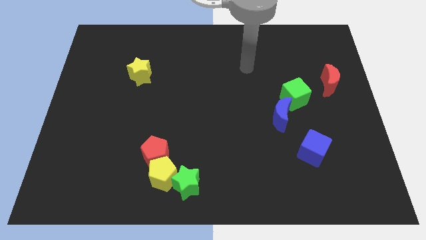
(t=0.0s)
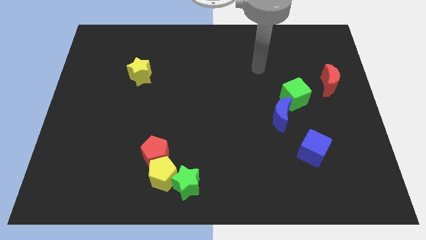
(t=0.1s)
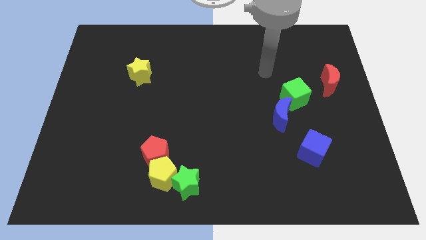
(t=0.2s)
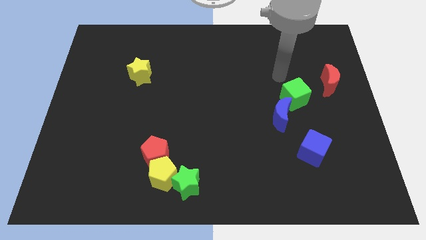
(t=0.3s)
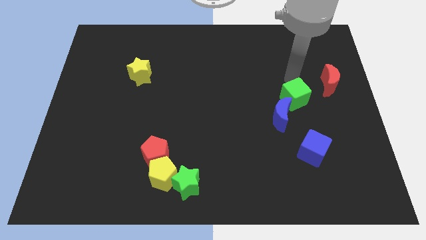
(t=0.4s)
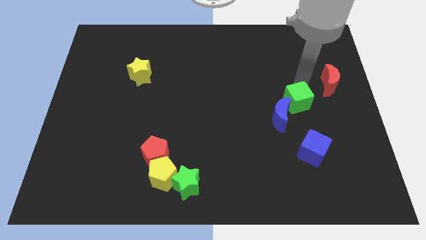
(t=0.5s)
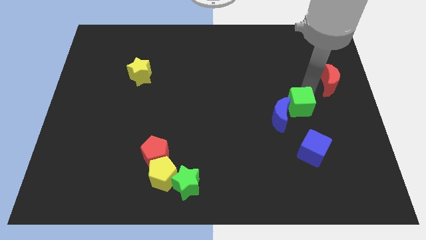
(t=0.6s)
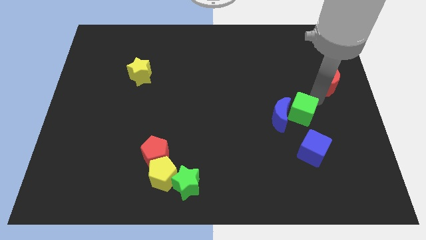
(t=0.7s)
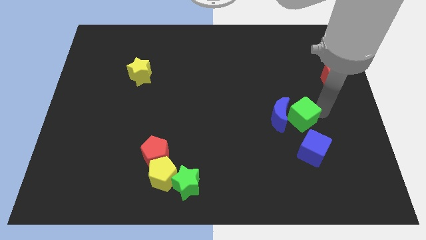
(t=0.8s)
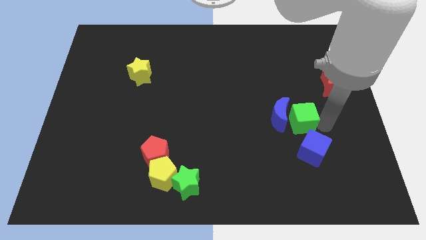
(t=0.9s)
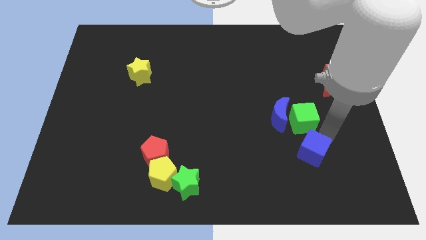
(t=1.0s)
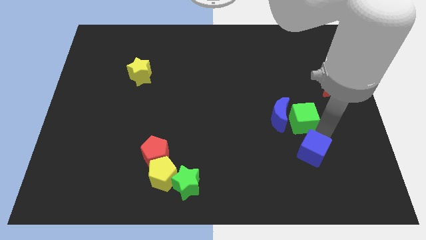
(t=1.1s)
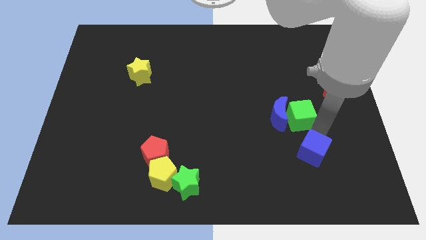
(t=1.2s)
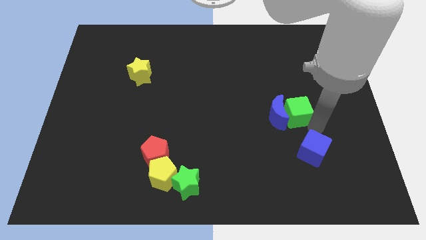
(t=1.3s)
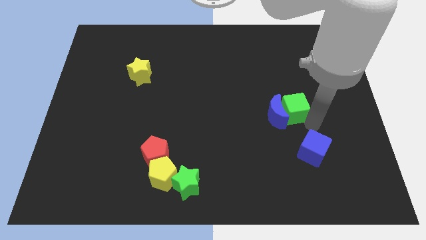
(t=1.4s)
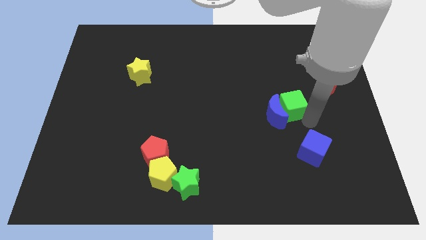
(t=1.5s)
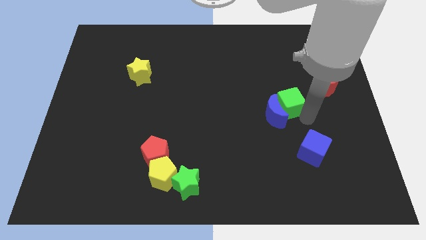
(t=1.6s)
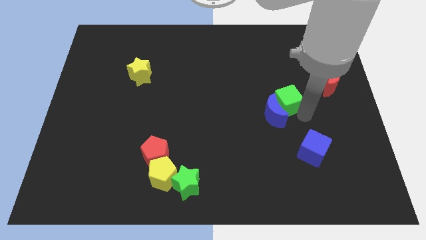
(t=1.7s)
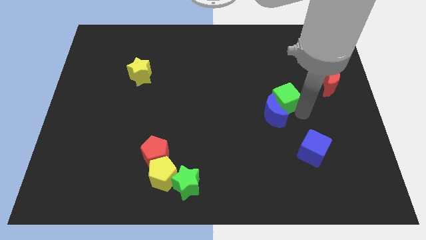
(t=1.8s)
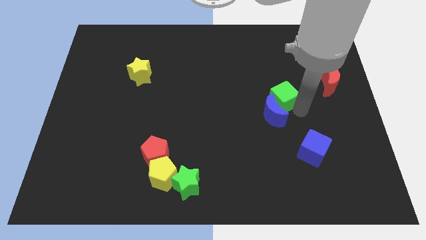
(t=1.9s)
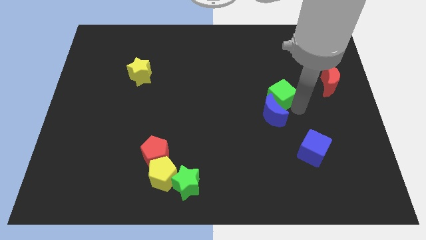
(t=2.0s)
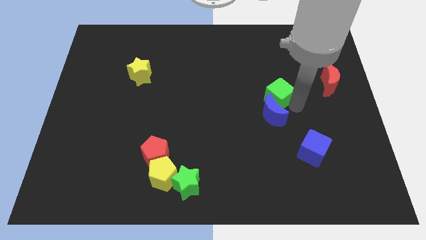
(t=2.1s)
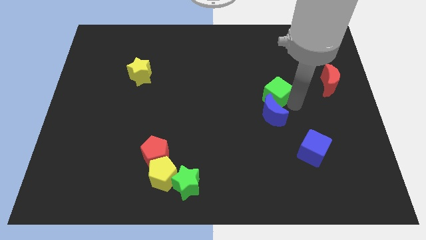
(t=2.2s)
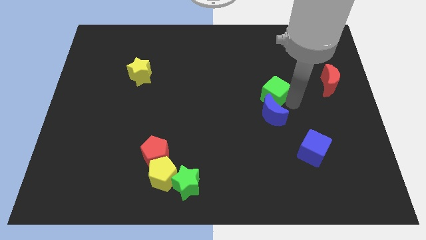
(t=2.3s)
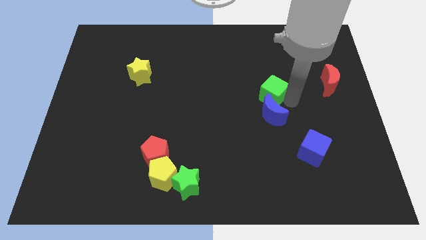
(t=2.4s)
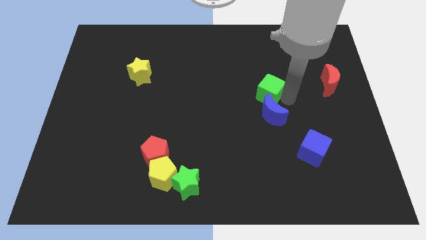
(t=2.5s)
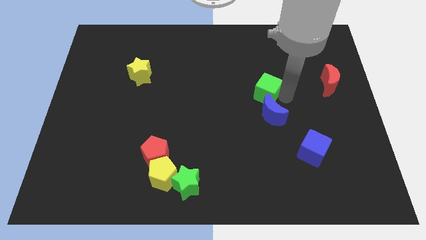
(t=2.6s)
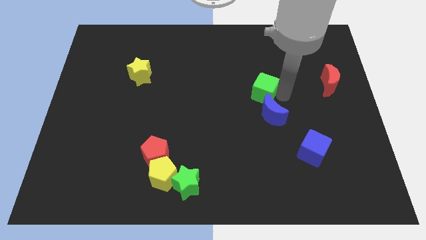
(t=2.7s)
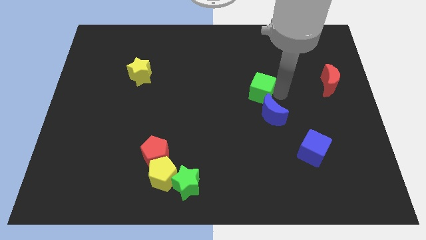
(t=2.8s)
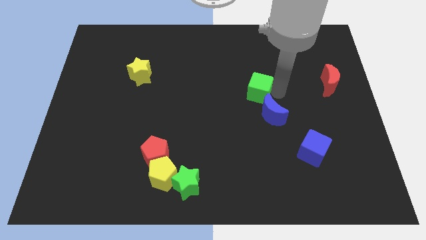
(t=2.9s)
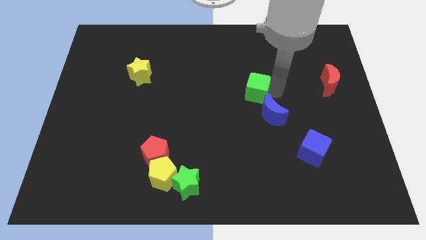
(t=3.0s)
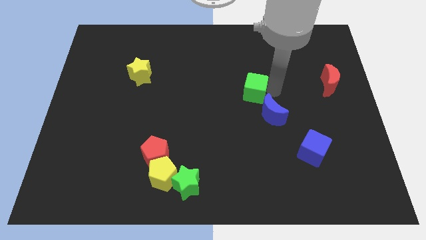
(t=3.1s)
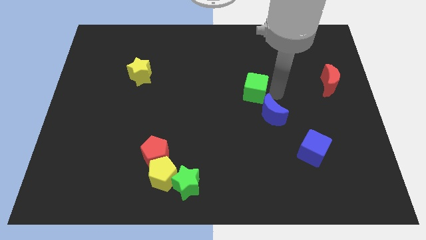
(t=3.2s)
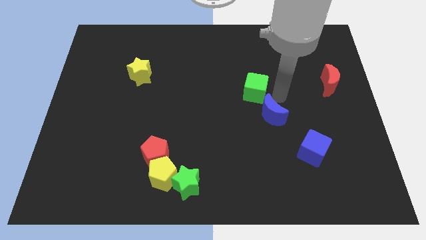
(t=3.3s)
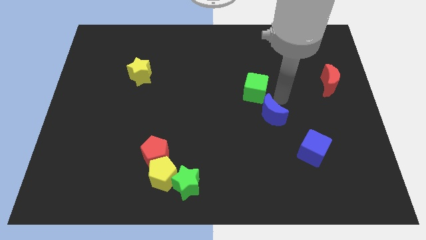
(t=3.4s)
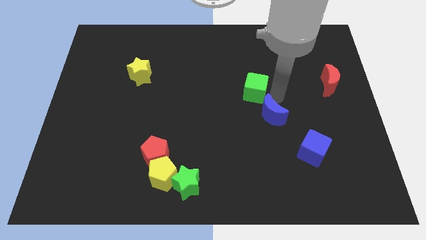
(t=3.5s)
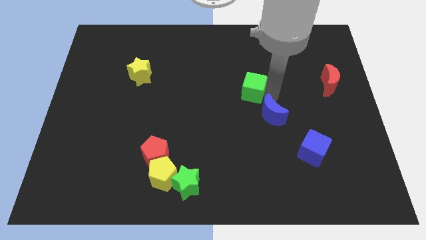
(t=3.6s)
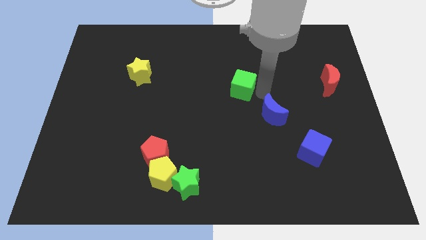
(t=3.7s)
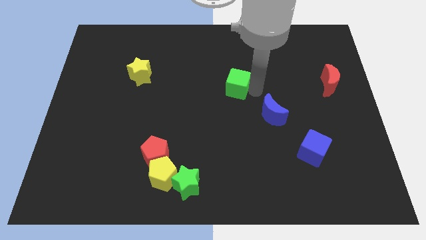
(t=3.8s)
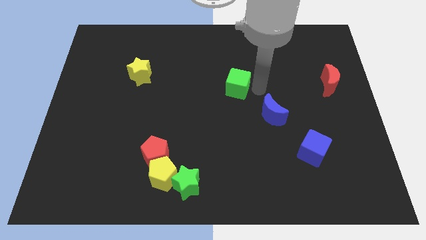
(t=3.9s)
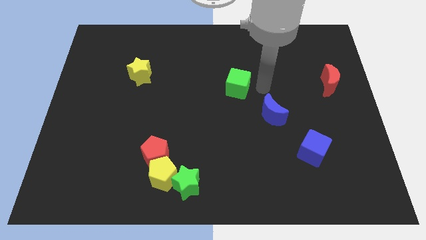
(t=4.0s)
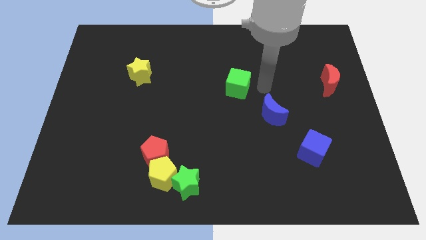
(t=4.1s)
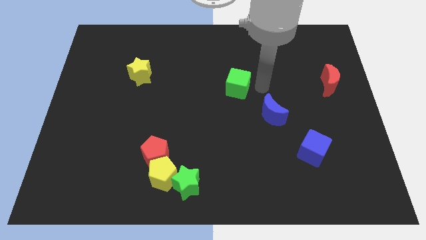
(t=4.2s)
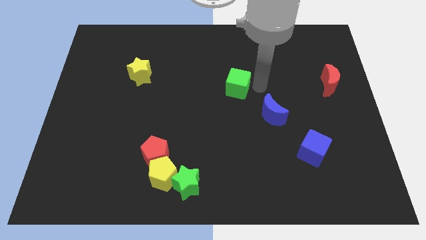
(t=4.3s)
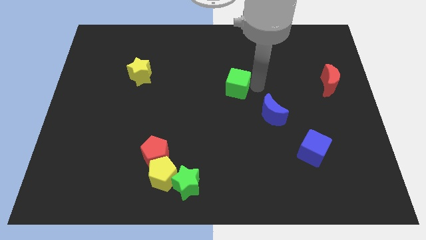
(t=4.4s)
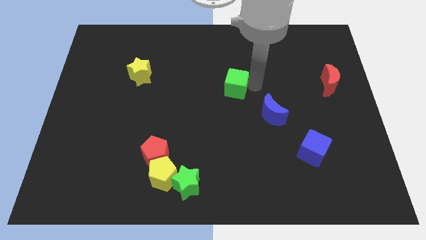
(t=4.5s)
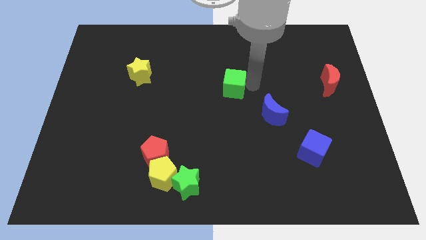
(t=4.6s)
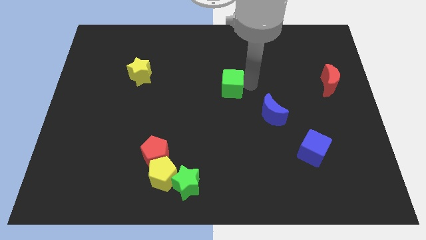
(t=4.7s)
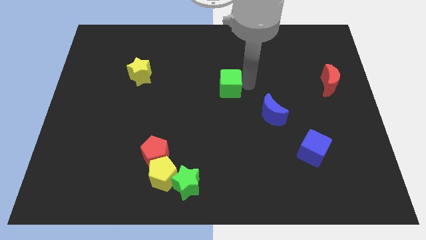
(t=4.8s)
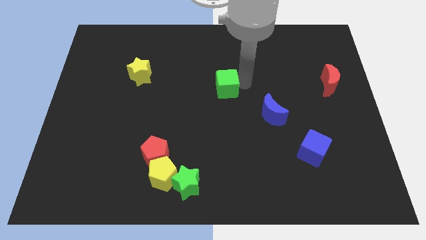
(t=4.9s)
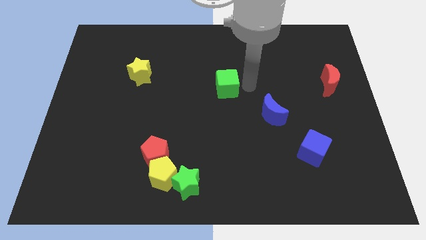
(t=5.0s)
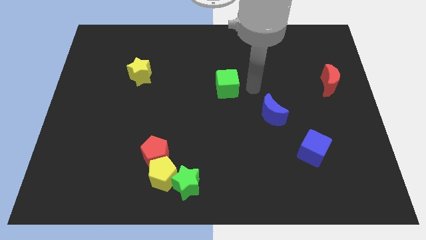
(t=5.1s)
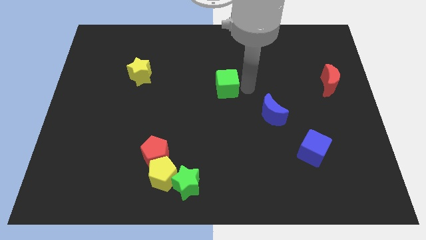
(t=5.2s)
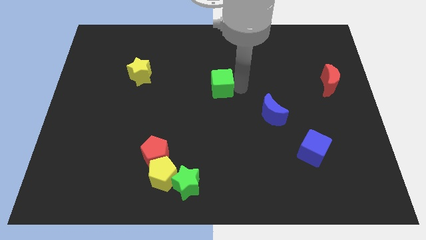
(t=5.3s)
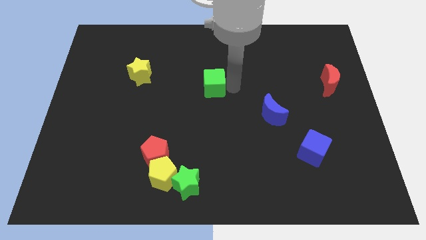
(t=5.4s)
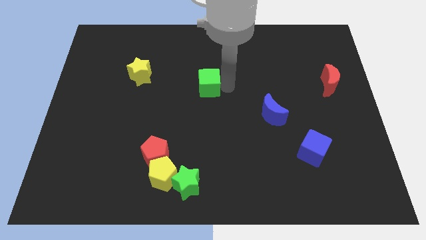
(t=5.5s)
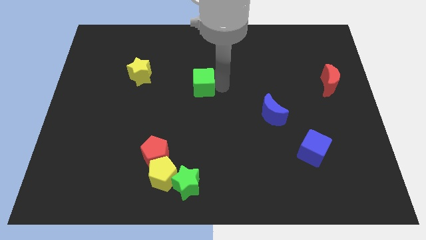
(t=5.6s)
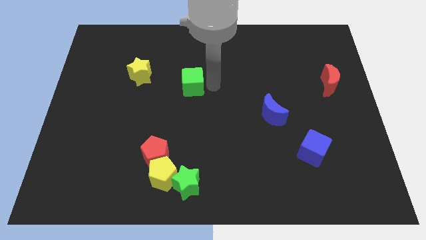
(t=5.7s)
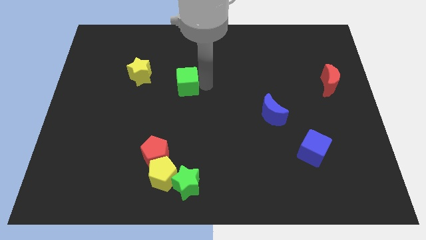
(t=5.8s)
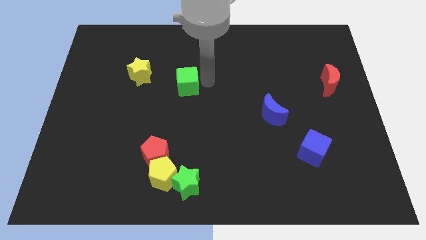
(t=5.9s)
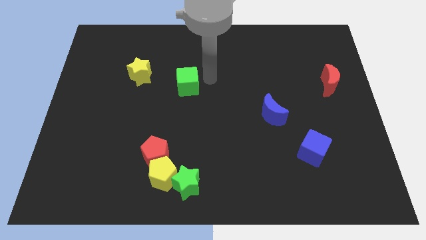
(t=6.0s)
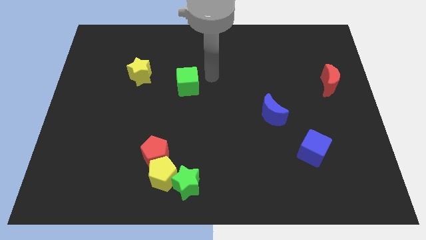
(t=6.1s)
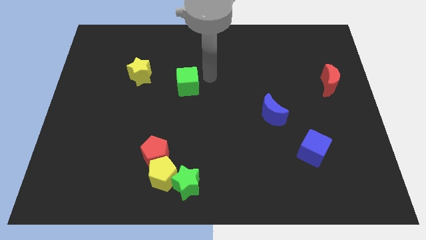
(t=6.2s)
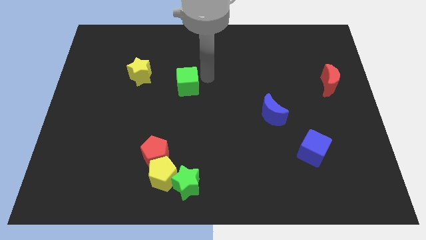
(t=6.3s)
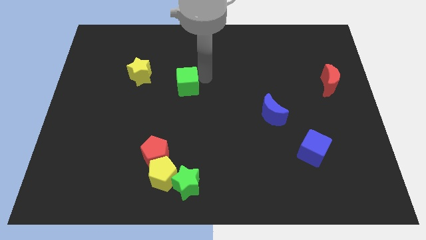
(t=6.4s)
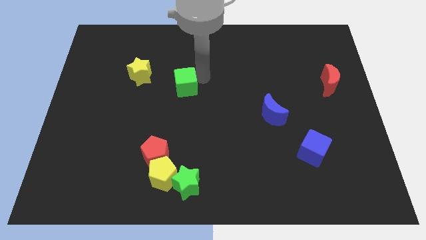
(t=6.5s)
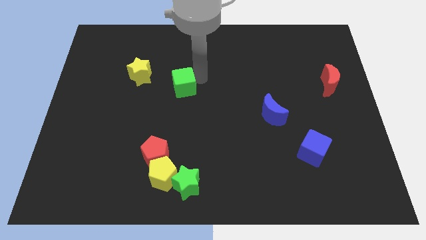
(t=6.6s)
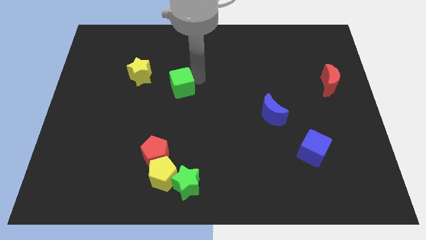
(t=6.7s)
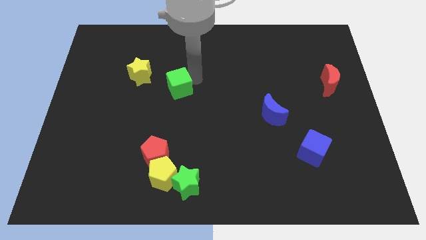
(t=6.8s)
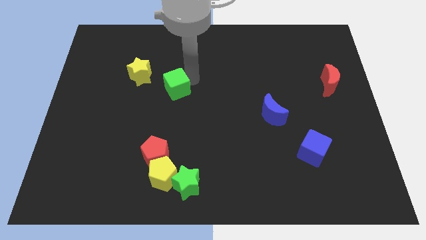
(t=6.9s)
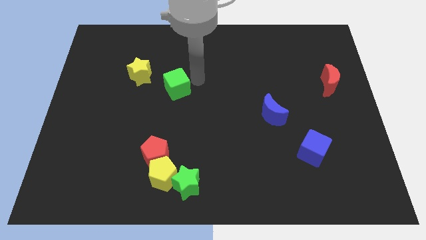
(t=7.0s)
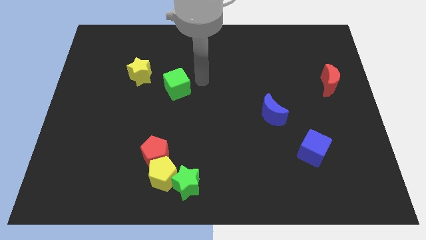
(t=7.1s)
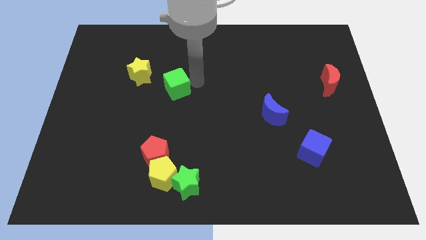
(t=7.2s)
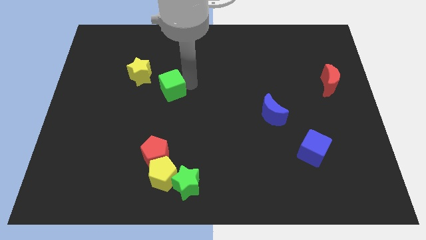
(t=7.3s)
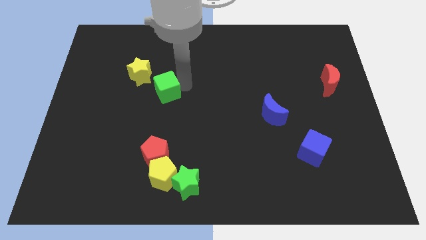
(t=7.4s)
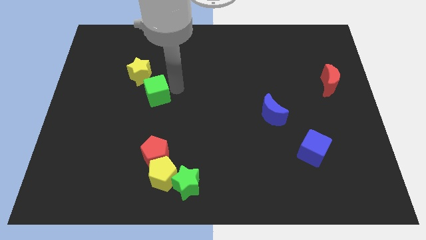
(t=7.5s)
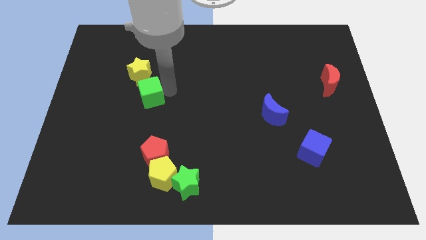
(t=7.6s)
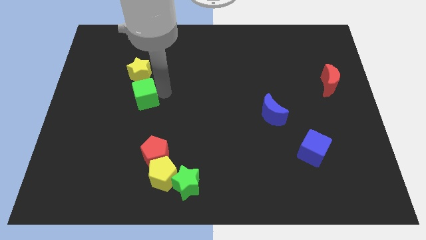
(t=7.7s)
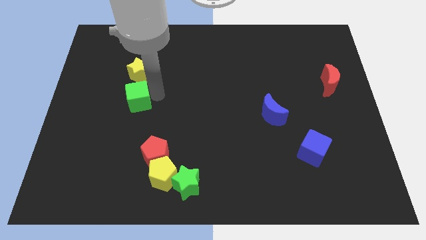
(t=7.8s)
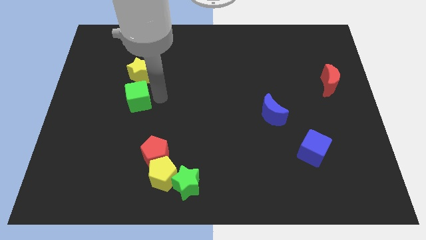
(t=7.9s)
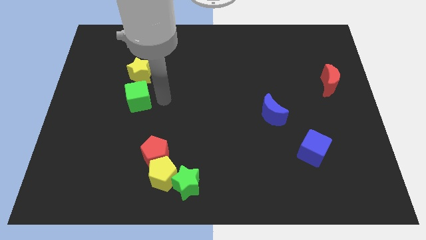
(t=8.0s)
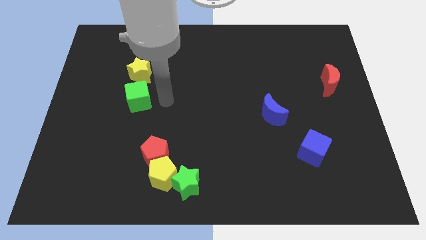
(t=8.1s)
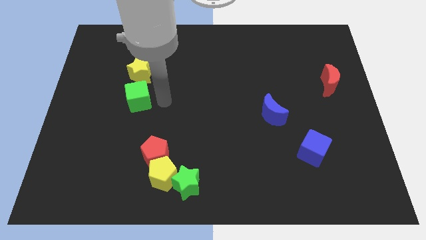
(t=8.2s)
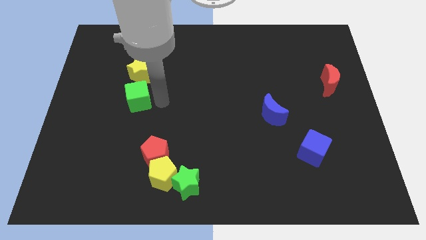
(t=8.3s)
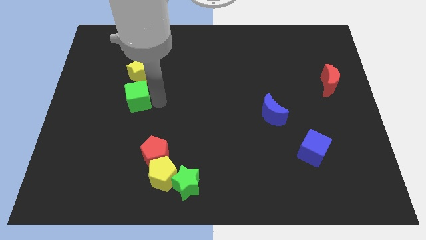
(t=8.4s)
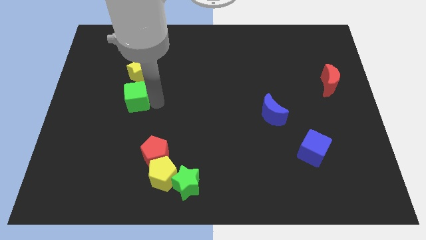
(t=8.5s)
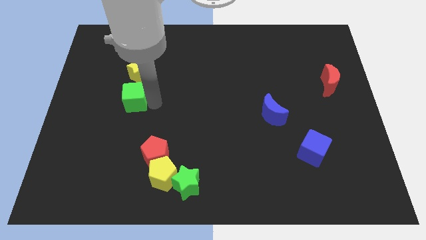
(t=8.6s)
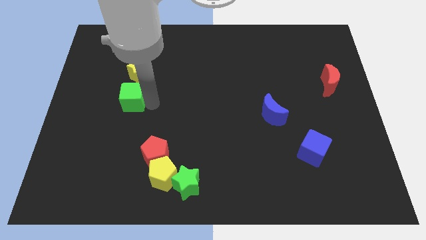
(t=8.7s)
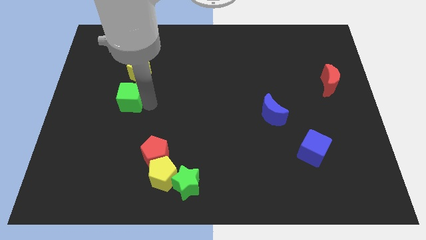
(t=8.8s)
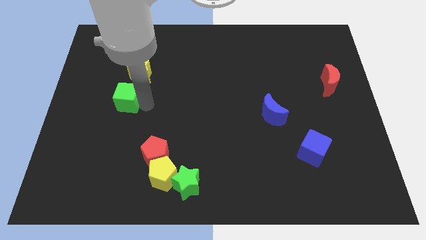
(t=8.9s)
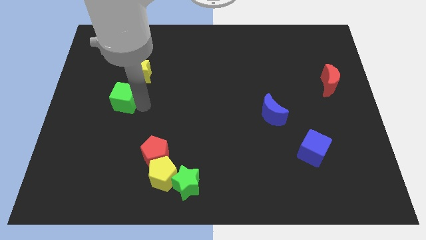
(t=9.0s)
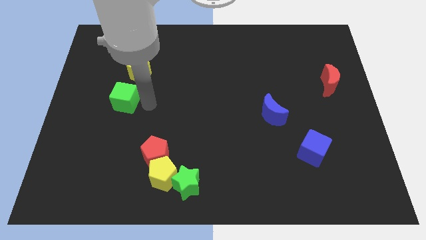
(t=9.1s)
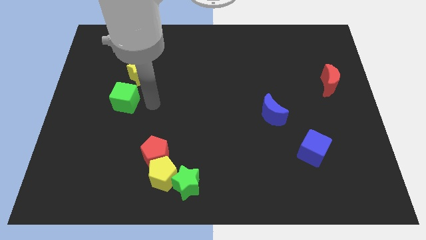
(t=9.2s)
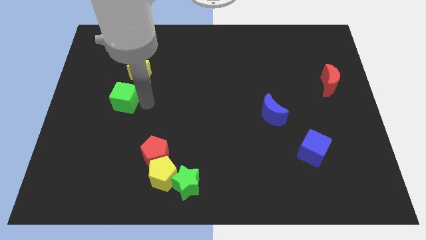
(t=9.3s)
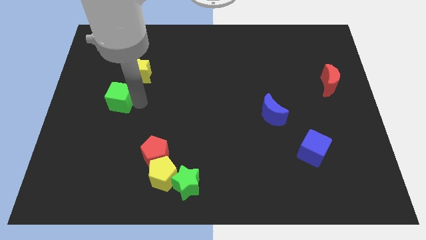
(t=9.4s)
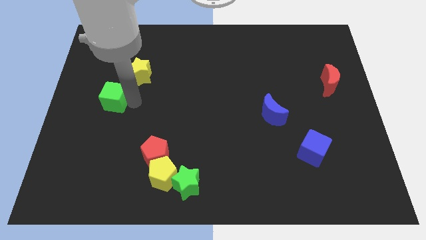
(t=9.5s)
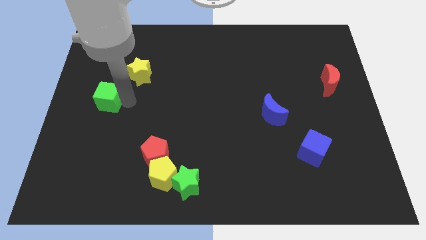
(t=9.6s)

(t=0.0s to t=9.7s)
slide the green cube to the left side
